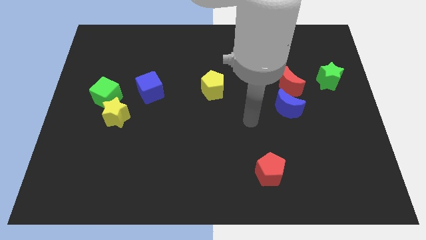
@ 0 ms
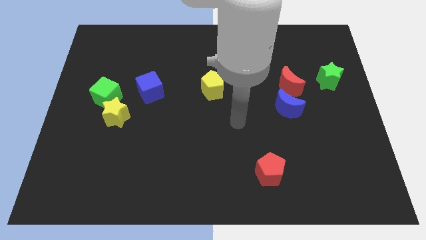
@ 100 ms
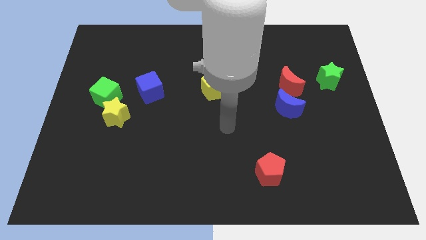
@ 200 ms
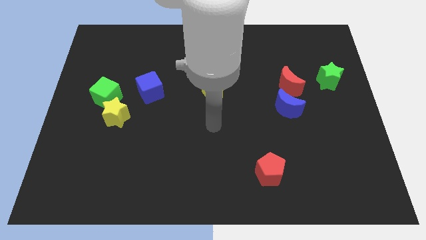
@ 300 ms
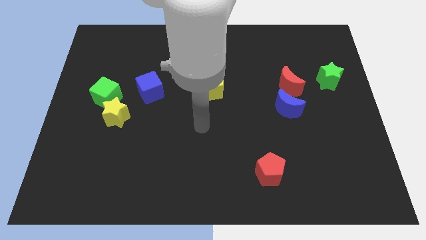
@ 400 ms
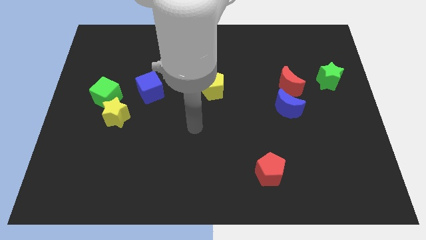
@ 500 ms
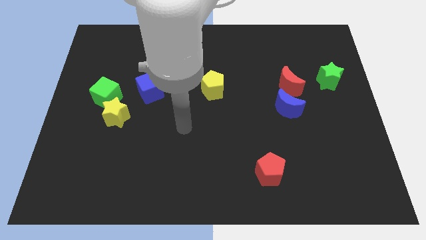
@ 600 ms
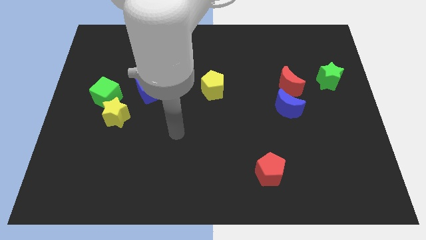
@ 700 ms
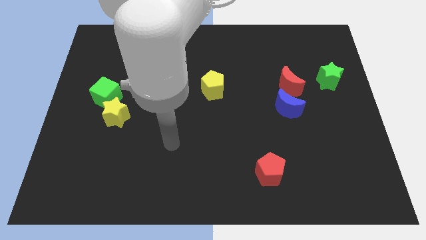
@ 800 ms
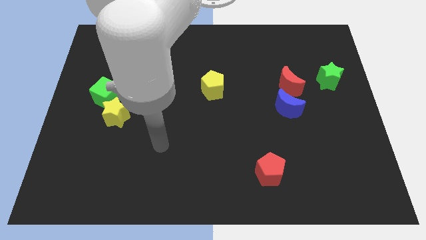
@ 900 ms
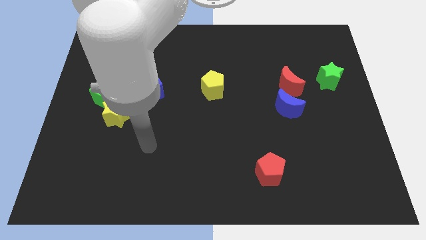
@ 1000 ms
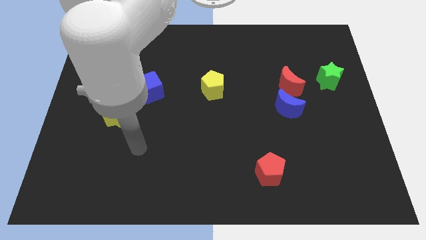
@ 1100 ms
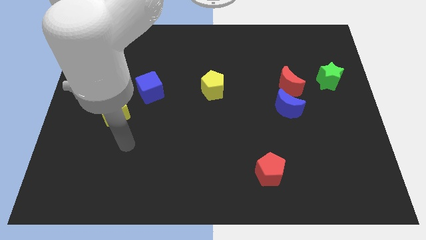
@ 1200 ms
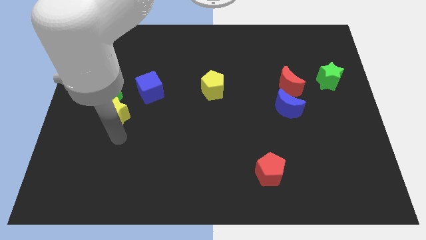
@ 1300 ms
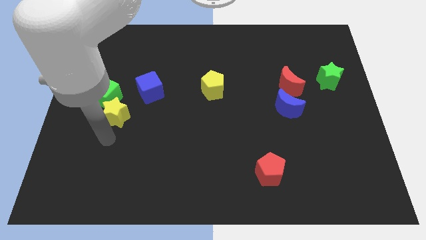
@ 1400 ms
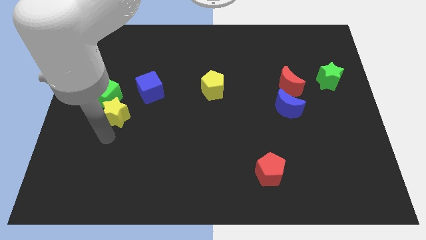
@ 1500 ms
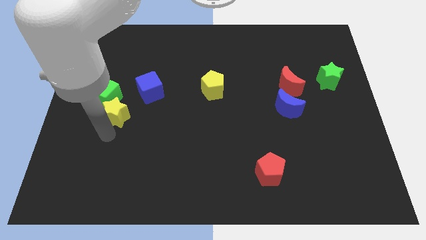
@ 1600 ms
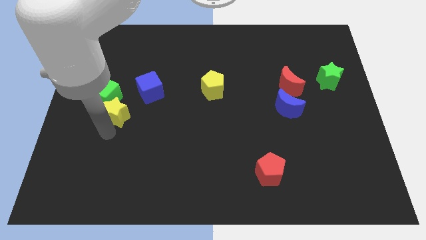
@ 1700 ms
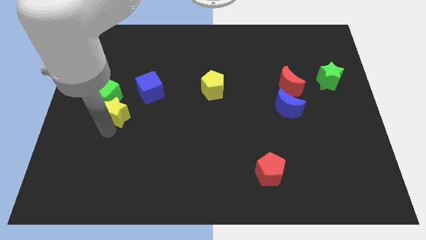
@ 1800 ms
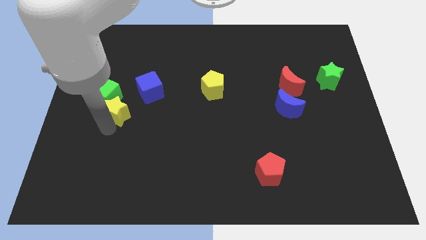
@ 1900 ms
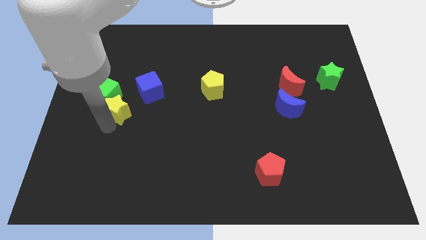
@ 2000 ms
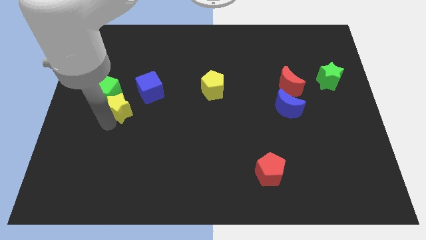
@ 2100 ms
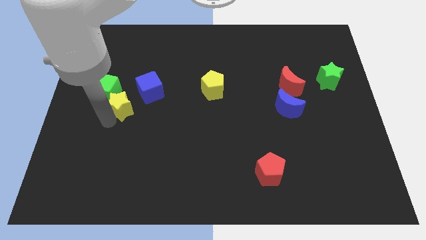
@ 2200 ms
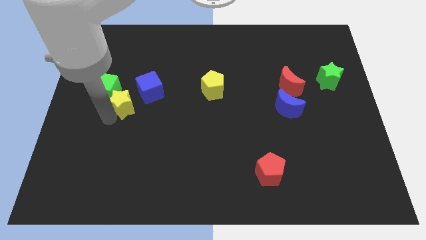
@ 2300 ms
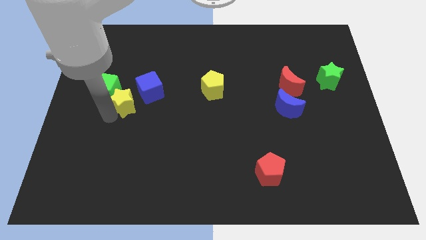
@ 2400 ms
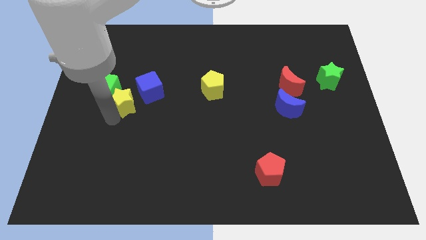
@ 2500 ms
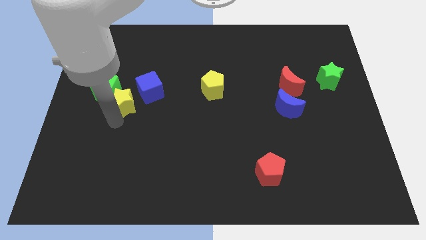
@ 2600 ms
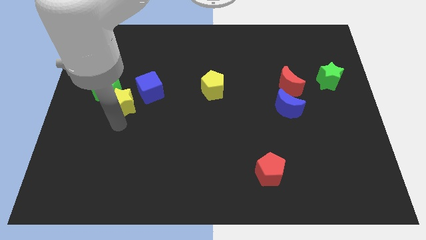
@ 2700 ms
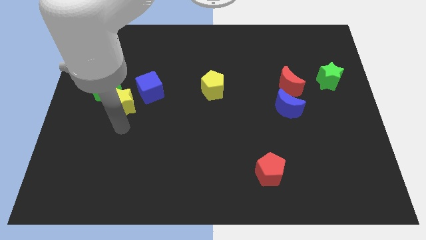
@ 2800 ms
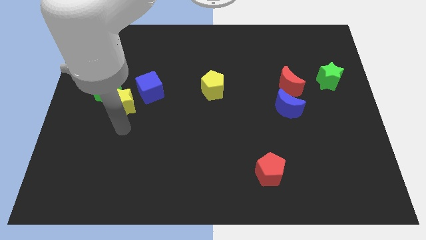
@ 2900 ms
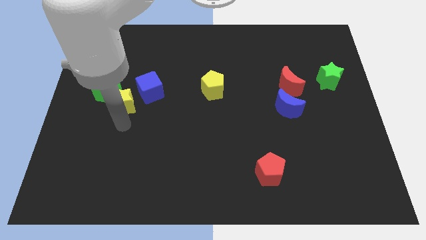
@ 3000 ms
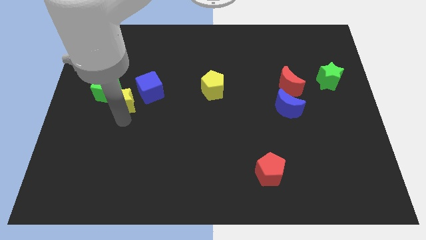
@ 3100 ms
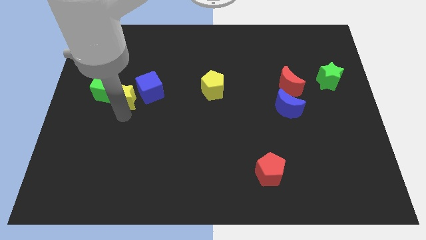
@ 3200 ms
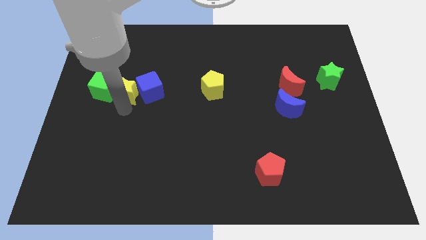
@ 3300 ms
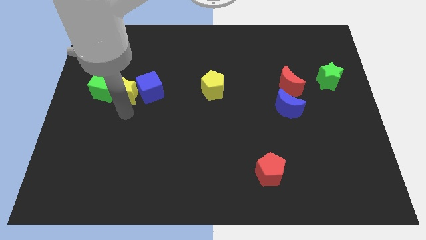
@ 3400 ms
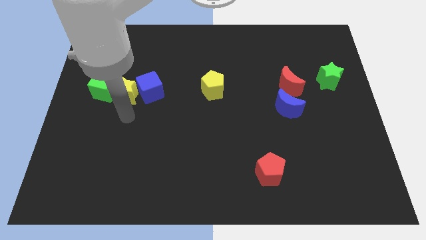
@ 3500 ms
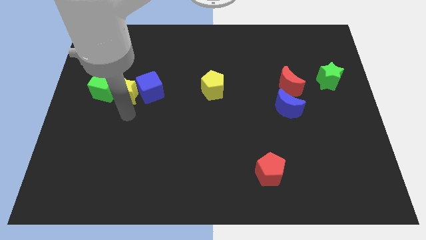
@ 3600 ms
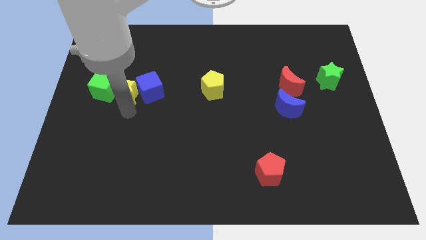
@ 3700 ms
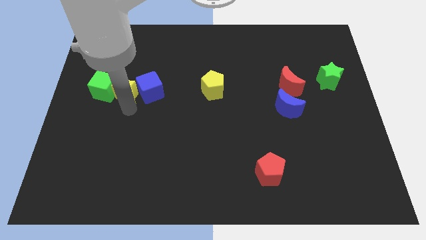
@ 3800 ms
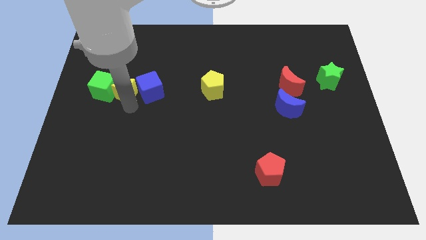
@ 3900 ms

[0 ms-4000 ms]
move the yellow star upwards slightly

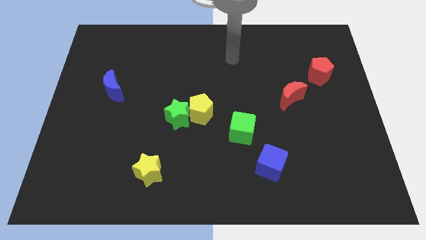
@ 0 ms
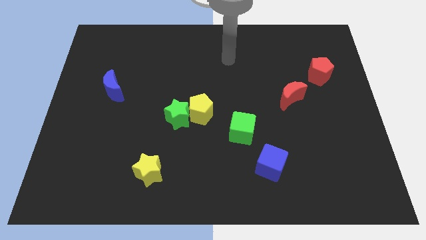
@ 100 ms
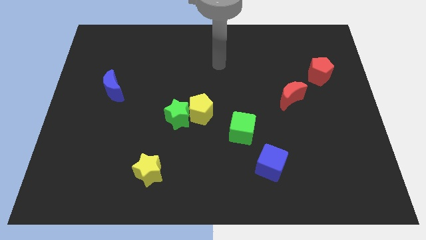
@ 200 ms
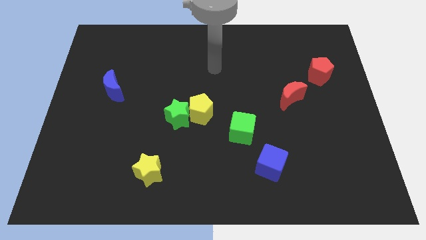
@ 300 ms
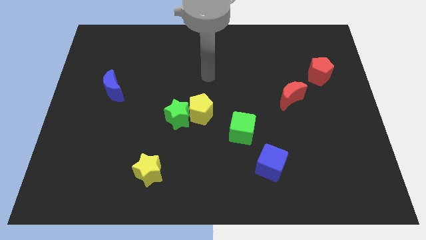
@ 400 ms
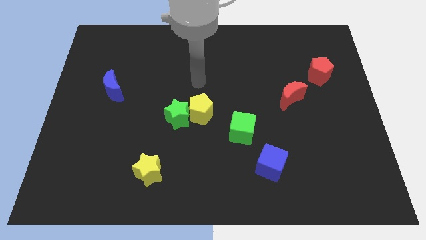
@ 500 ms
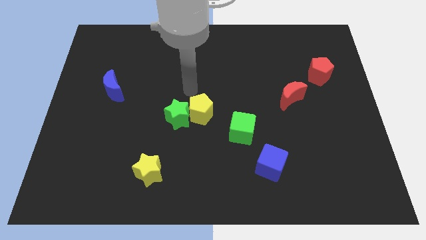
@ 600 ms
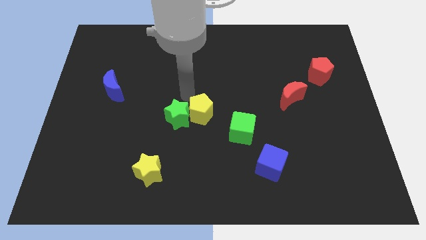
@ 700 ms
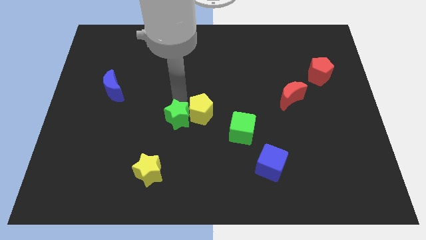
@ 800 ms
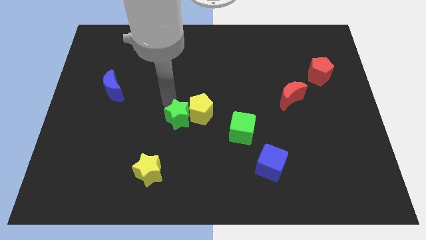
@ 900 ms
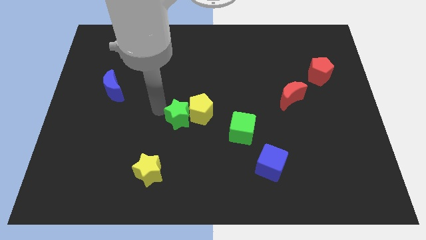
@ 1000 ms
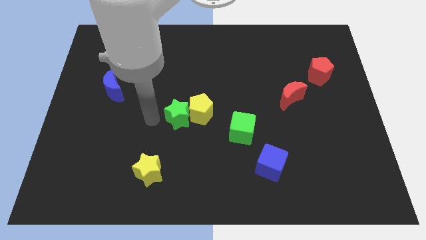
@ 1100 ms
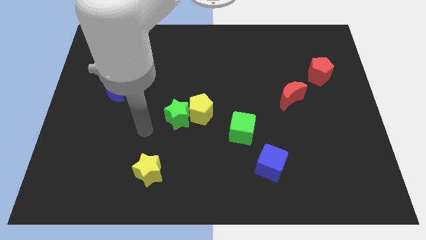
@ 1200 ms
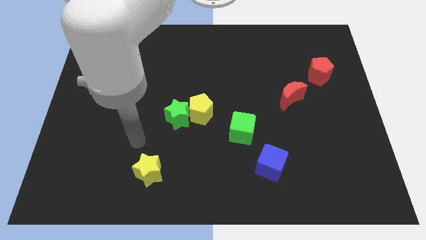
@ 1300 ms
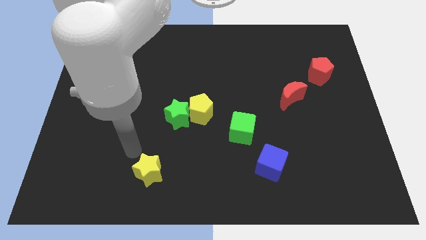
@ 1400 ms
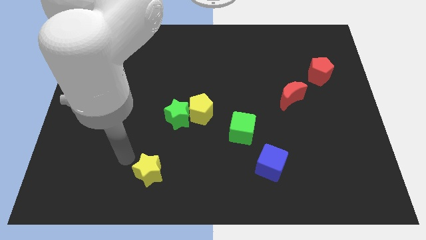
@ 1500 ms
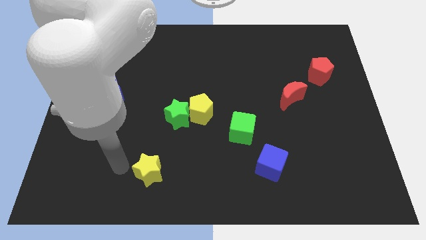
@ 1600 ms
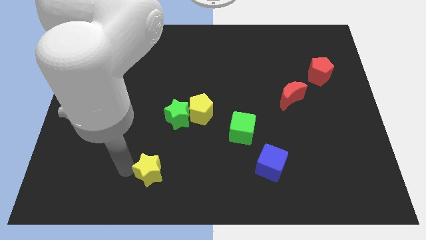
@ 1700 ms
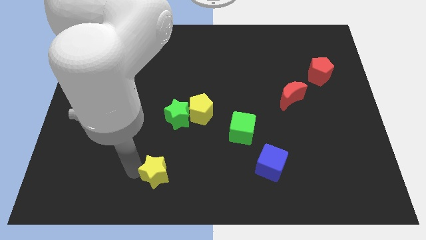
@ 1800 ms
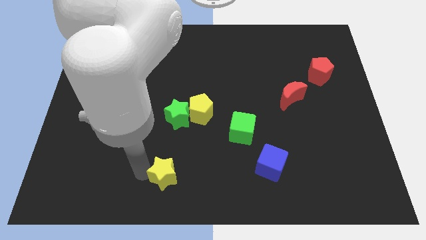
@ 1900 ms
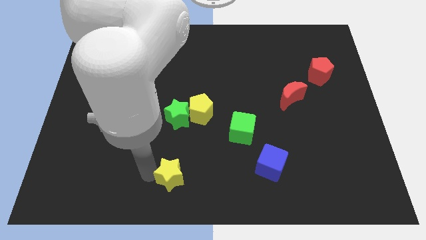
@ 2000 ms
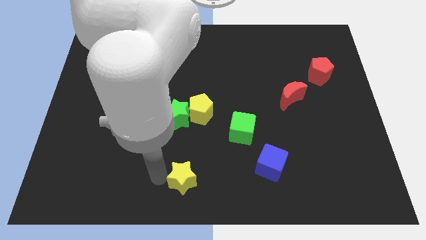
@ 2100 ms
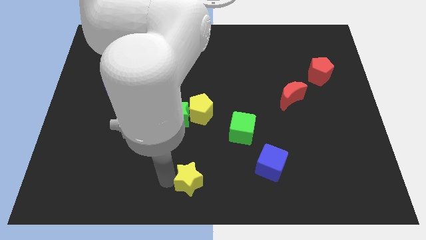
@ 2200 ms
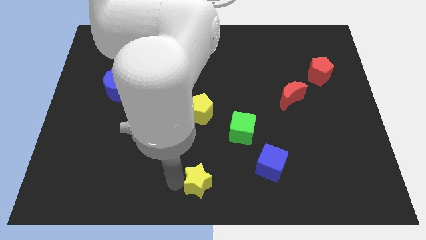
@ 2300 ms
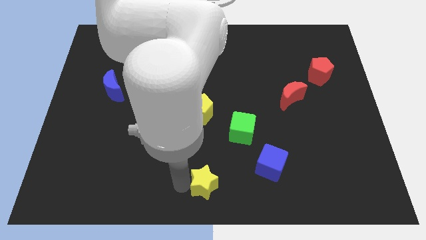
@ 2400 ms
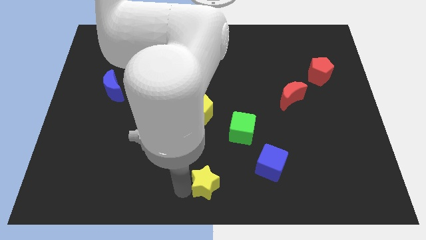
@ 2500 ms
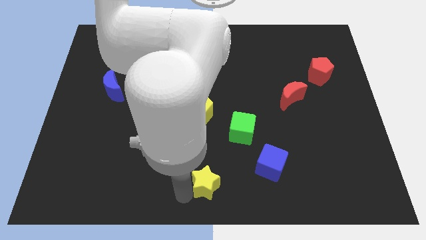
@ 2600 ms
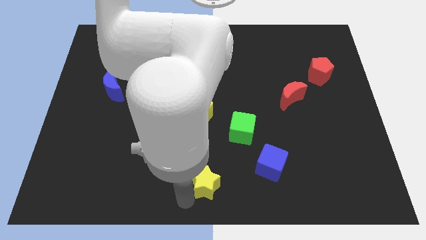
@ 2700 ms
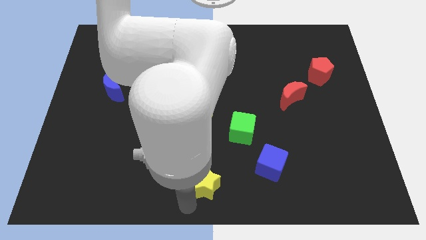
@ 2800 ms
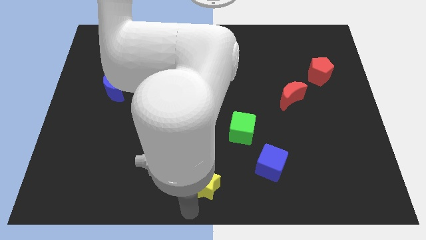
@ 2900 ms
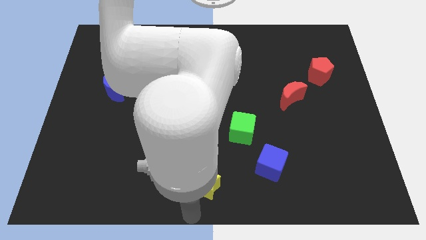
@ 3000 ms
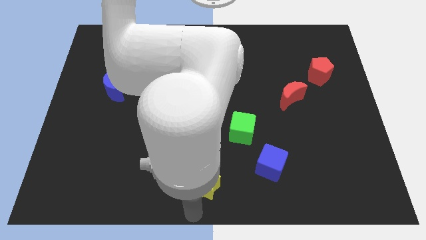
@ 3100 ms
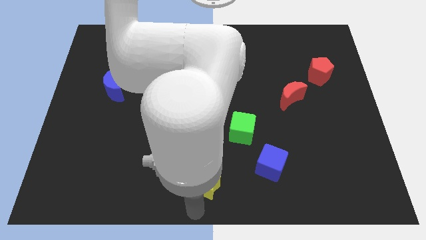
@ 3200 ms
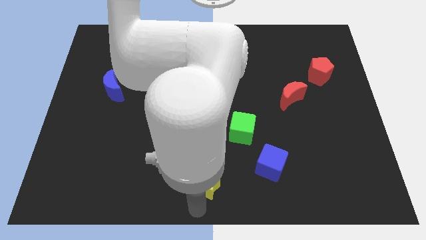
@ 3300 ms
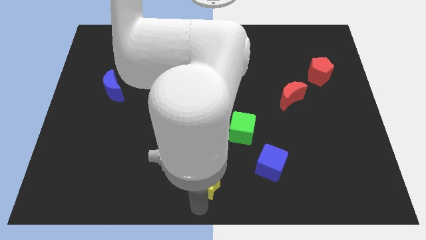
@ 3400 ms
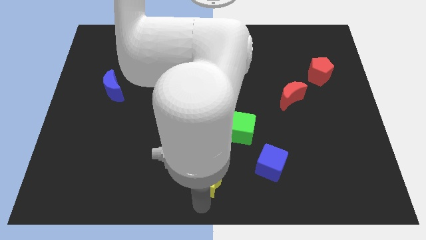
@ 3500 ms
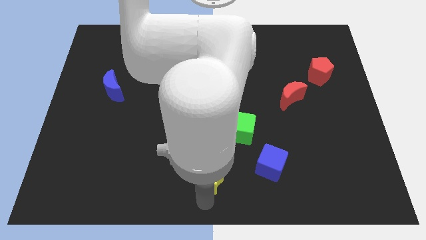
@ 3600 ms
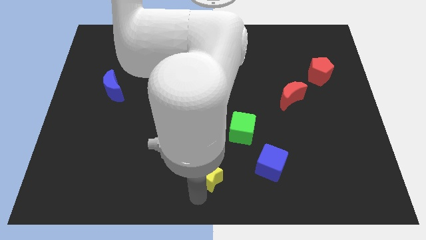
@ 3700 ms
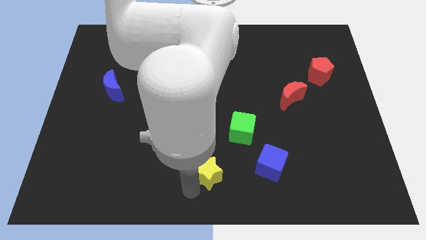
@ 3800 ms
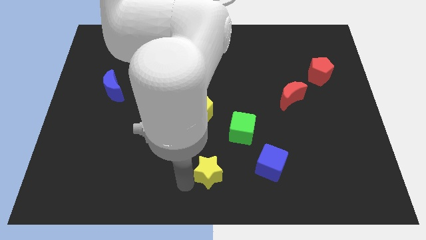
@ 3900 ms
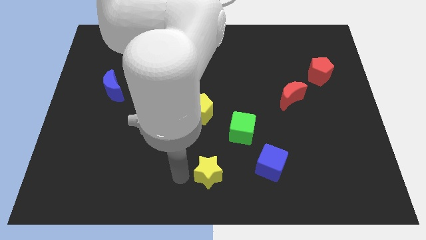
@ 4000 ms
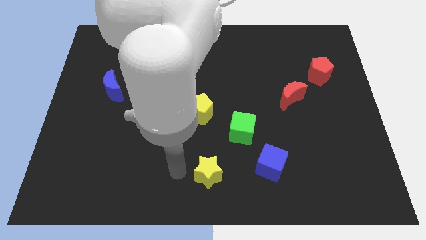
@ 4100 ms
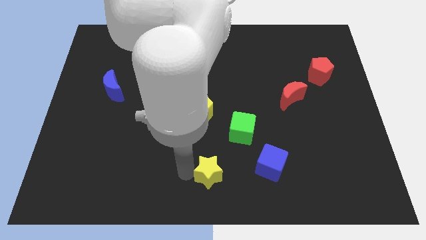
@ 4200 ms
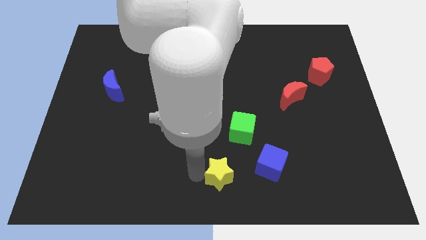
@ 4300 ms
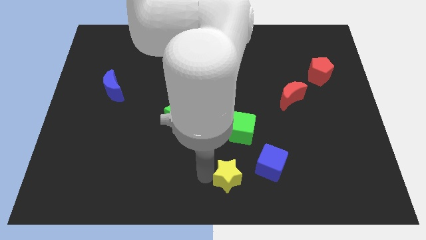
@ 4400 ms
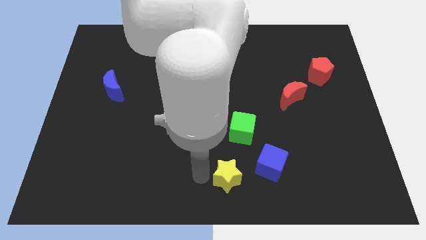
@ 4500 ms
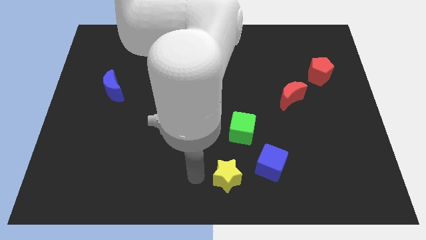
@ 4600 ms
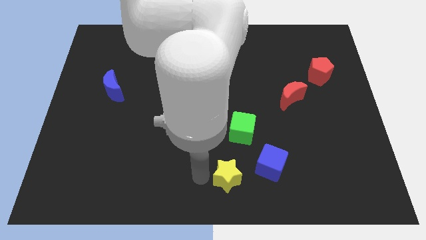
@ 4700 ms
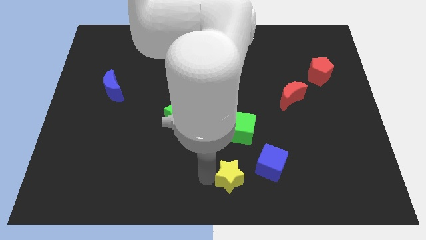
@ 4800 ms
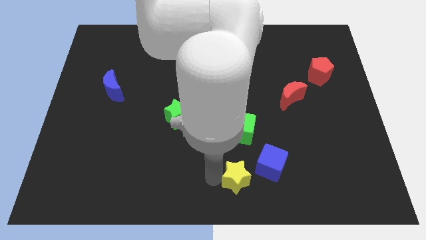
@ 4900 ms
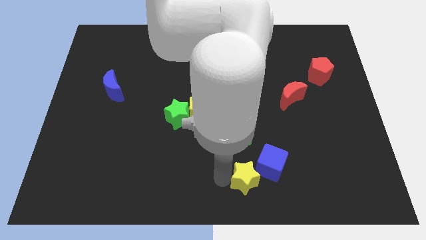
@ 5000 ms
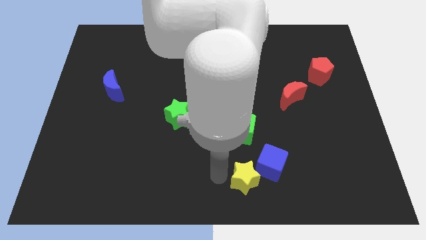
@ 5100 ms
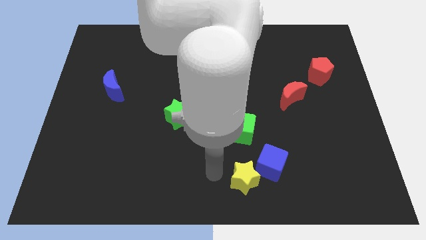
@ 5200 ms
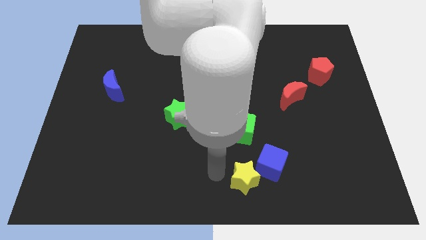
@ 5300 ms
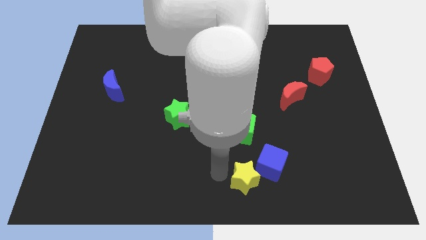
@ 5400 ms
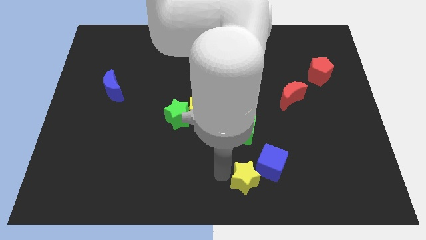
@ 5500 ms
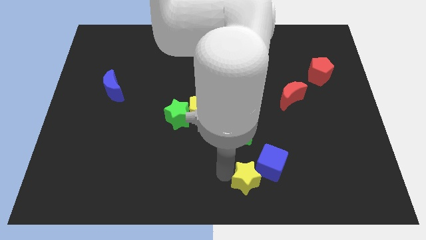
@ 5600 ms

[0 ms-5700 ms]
push the yellow star to the right
